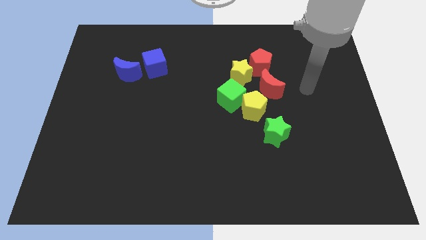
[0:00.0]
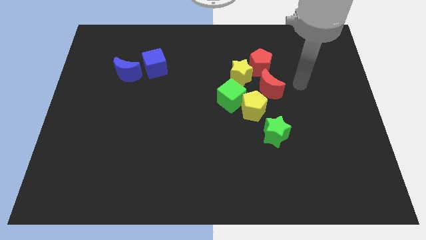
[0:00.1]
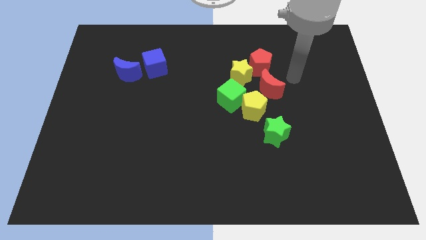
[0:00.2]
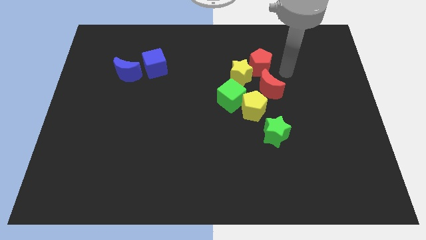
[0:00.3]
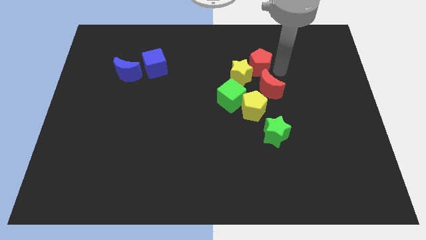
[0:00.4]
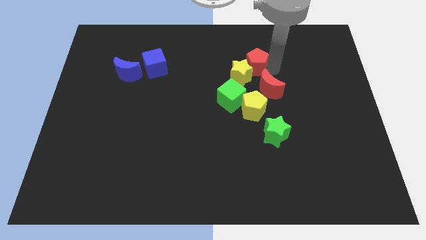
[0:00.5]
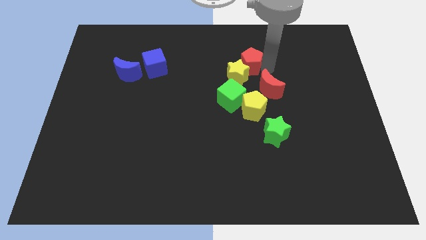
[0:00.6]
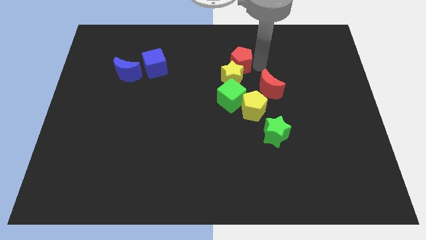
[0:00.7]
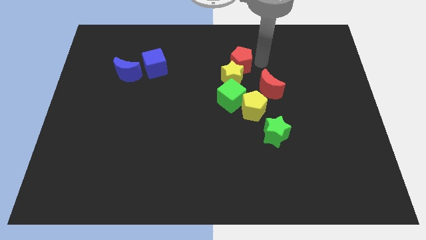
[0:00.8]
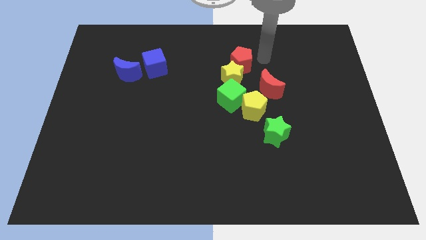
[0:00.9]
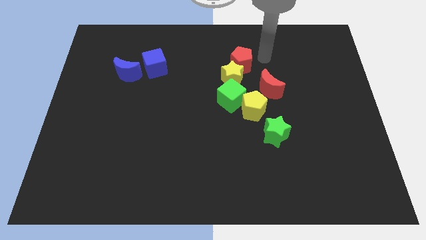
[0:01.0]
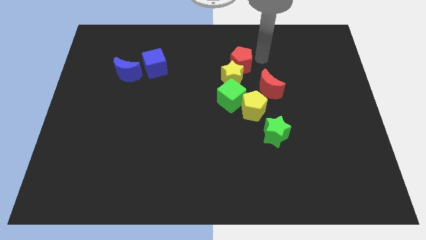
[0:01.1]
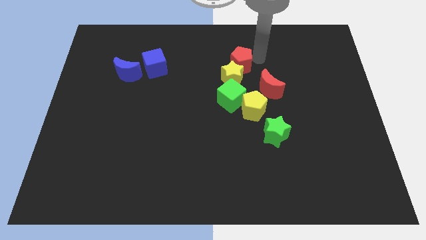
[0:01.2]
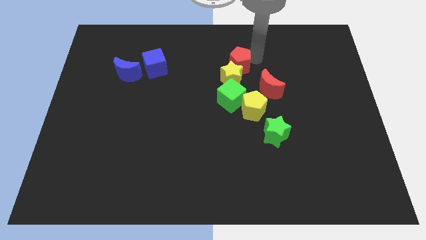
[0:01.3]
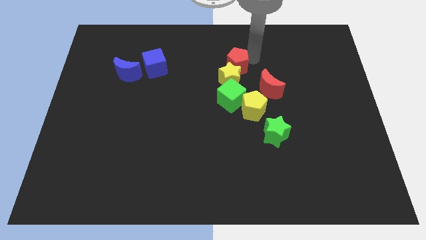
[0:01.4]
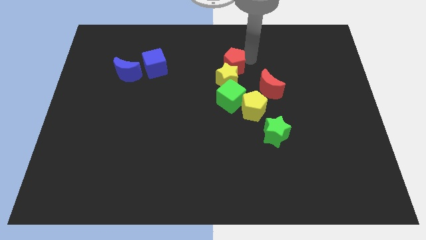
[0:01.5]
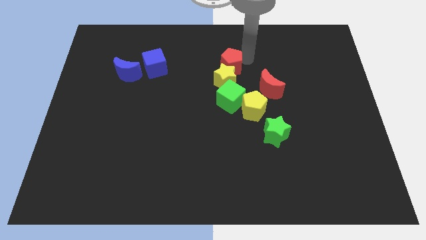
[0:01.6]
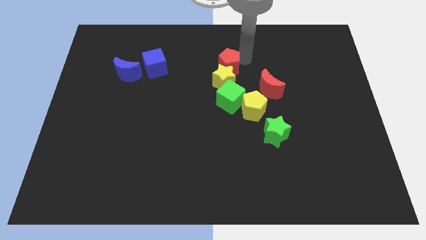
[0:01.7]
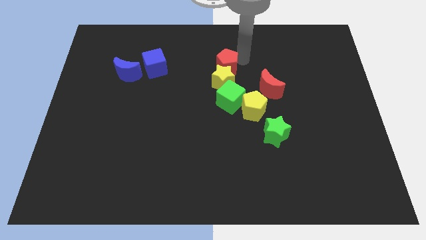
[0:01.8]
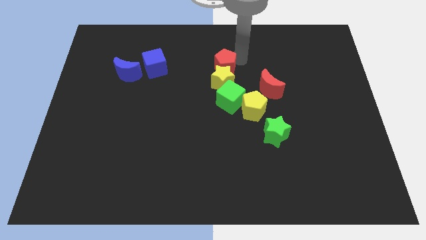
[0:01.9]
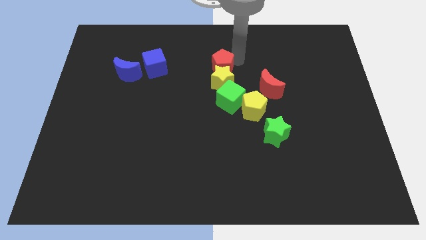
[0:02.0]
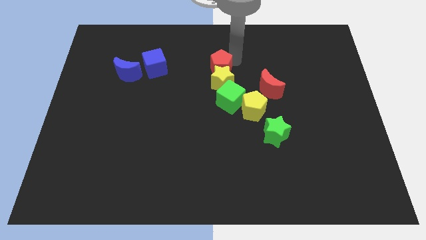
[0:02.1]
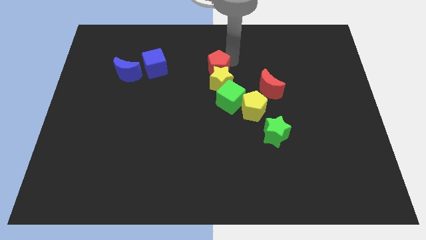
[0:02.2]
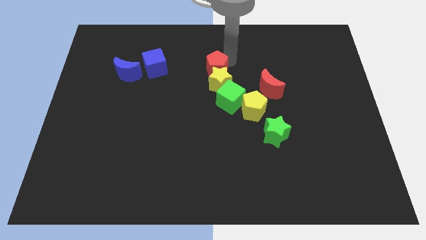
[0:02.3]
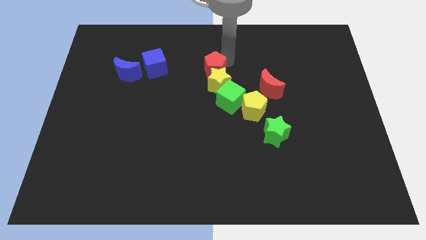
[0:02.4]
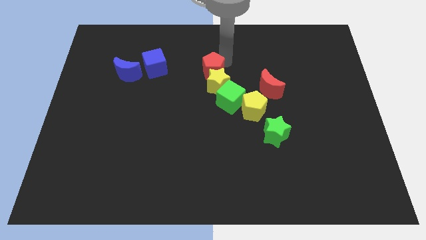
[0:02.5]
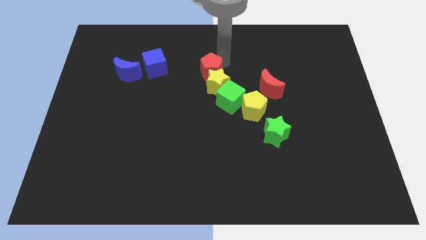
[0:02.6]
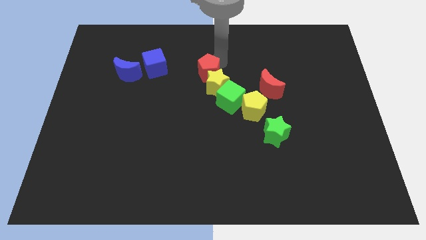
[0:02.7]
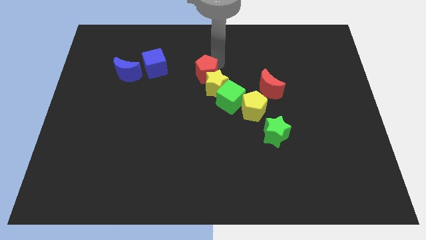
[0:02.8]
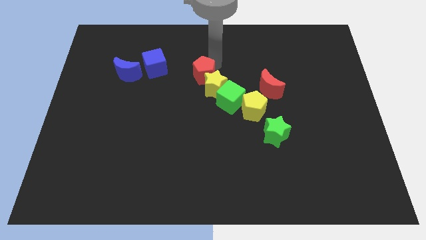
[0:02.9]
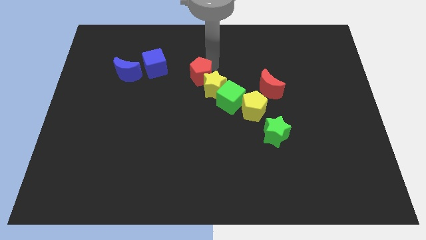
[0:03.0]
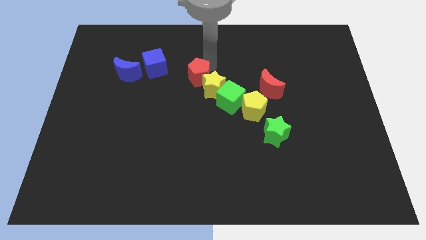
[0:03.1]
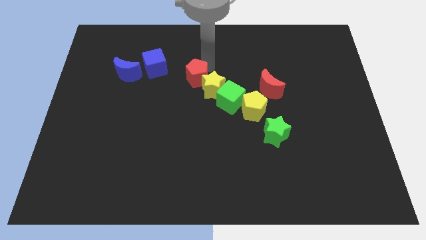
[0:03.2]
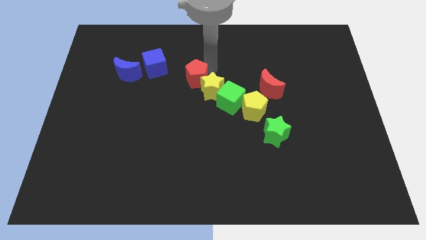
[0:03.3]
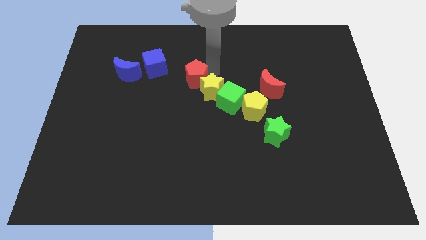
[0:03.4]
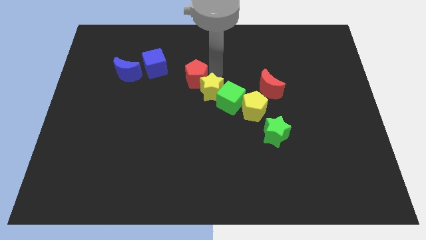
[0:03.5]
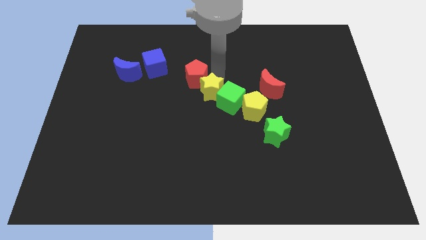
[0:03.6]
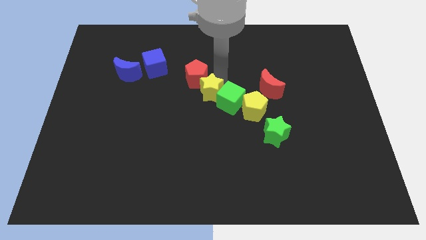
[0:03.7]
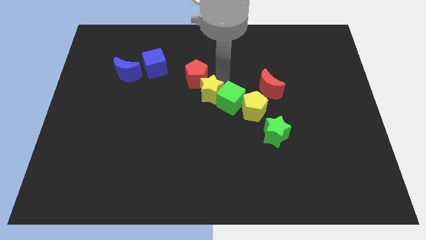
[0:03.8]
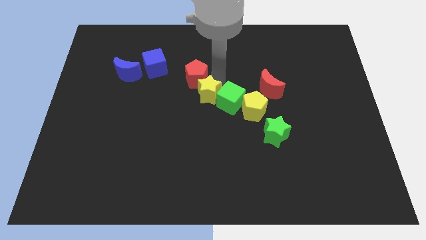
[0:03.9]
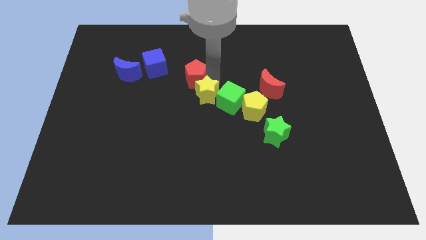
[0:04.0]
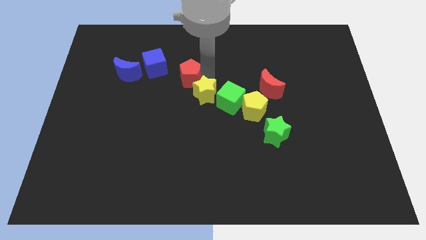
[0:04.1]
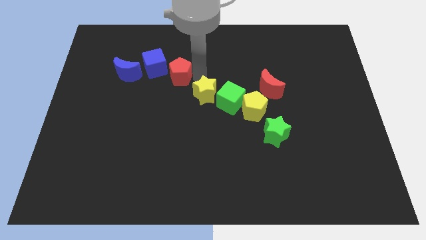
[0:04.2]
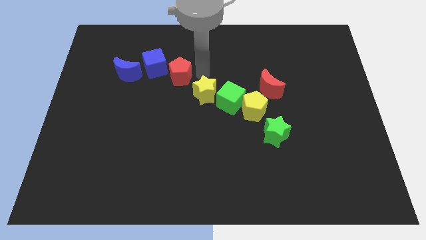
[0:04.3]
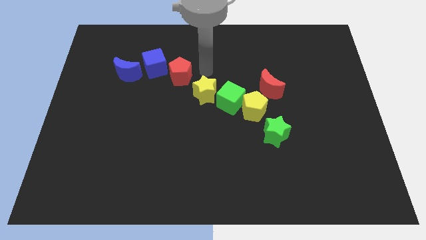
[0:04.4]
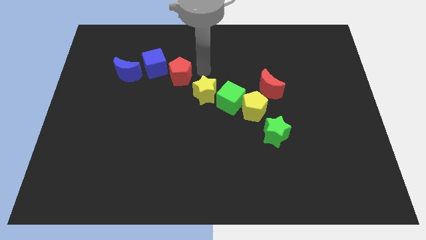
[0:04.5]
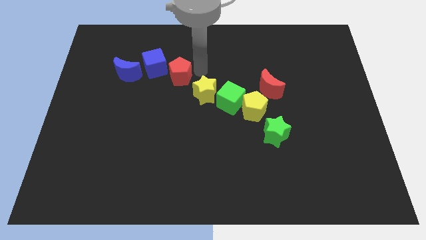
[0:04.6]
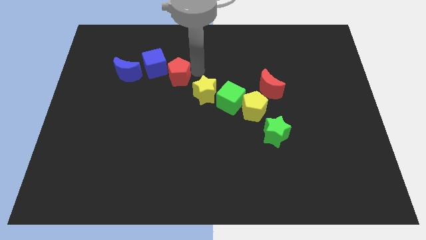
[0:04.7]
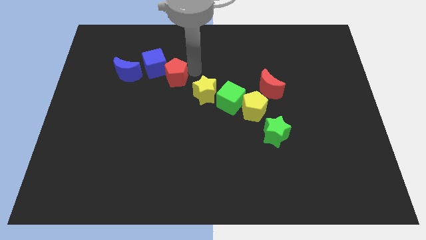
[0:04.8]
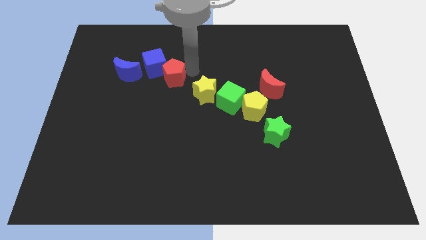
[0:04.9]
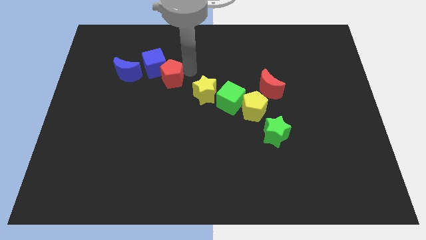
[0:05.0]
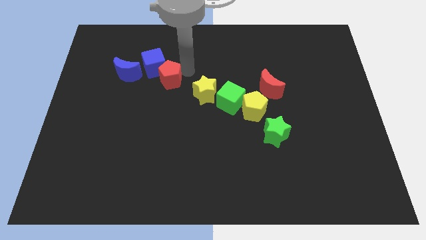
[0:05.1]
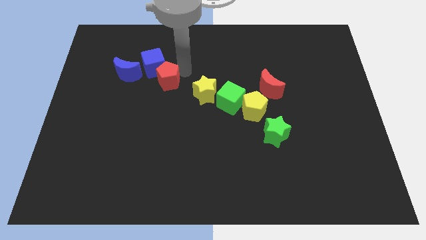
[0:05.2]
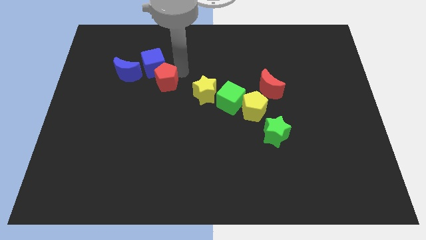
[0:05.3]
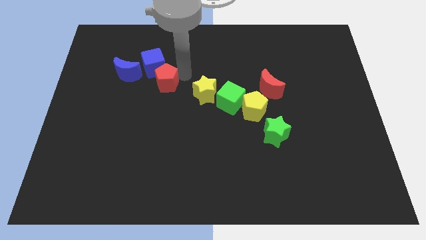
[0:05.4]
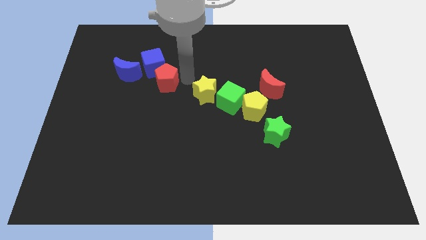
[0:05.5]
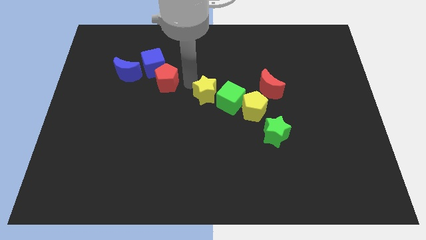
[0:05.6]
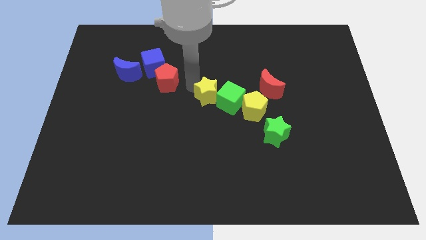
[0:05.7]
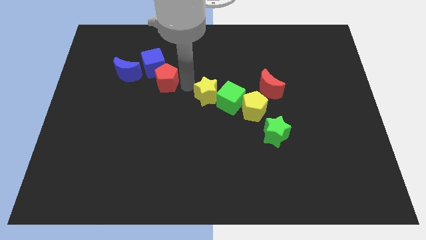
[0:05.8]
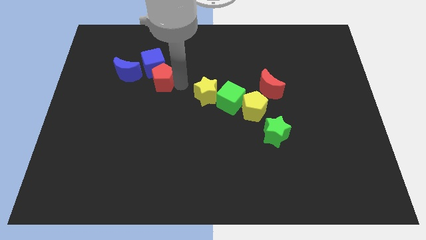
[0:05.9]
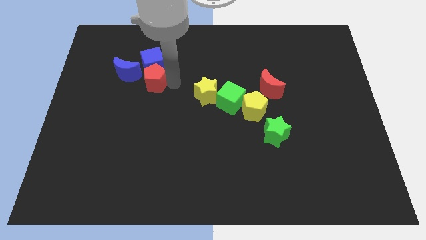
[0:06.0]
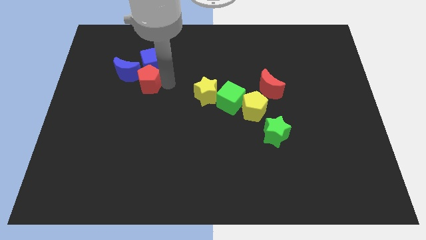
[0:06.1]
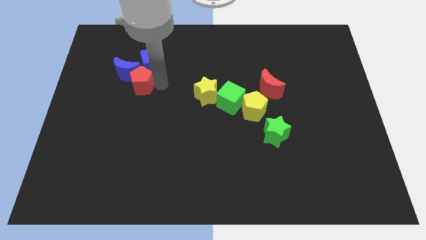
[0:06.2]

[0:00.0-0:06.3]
move the red pentagon close to the blue moon

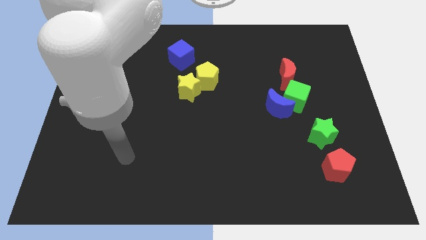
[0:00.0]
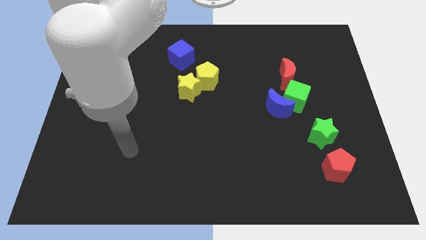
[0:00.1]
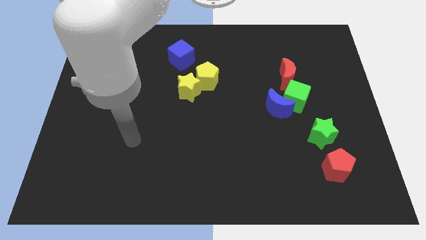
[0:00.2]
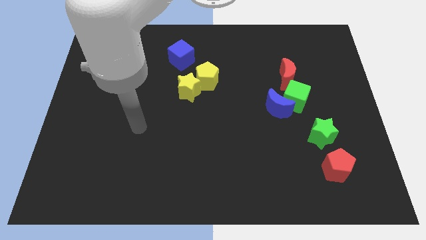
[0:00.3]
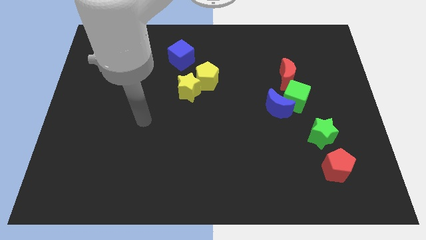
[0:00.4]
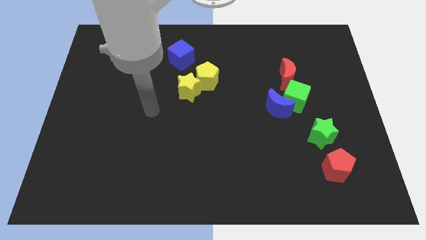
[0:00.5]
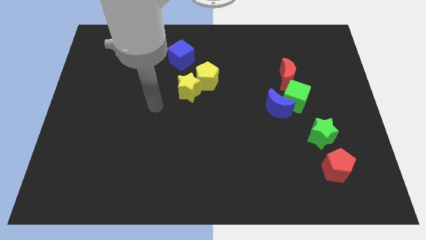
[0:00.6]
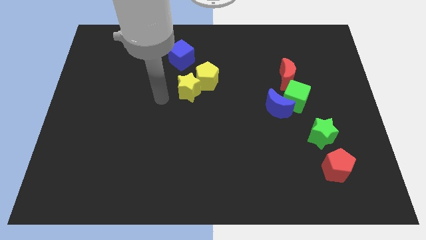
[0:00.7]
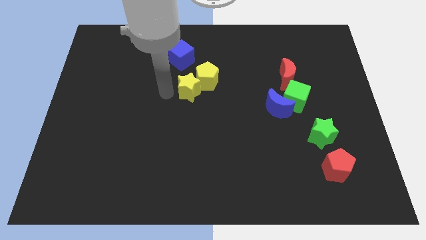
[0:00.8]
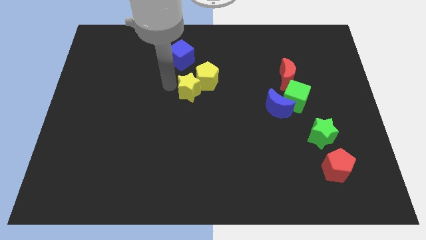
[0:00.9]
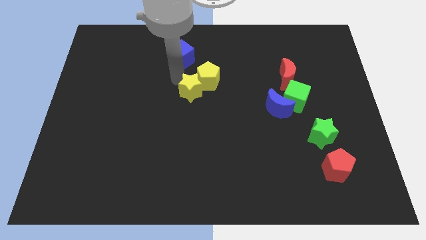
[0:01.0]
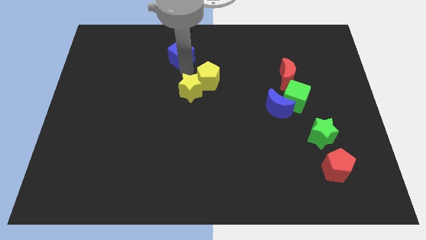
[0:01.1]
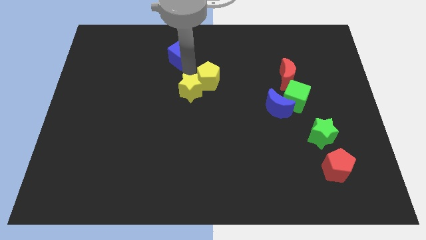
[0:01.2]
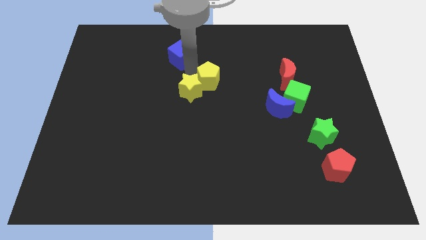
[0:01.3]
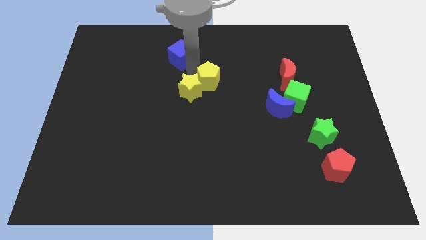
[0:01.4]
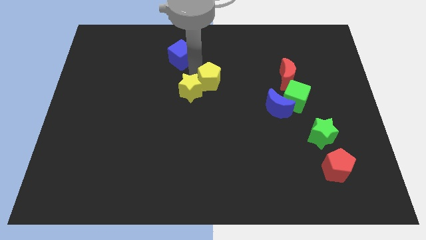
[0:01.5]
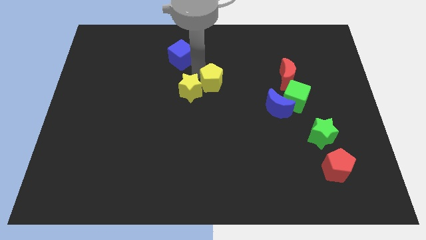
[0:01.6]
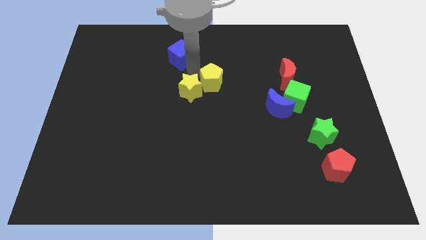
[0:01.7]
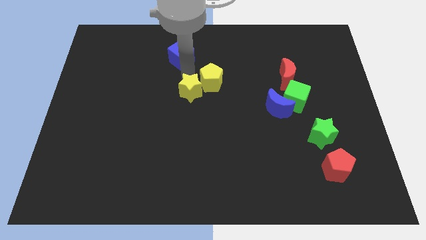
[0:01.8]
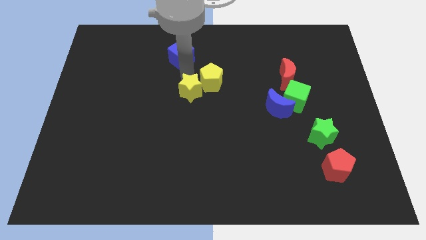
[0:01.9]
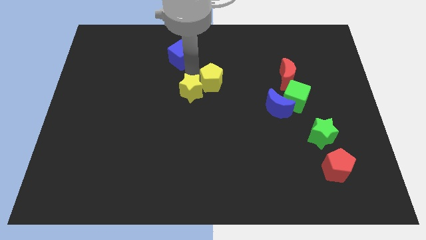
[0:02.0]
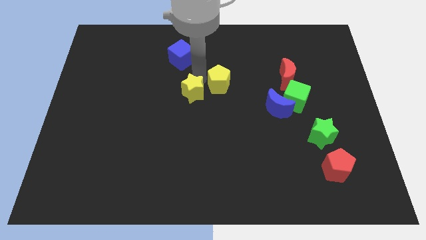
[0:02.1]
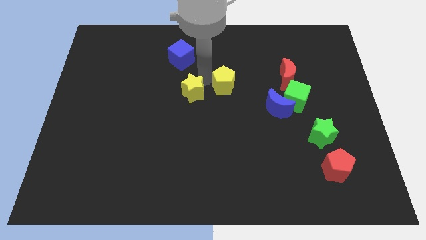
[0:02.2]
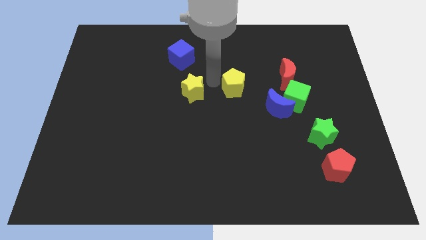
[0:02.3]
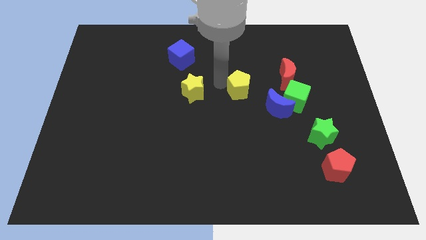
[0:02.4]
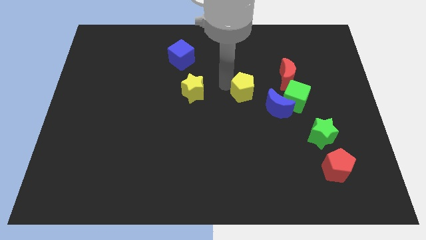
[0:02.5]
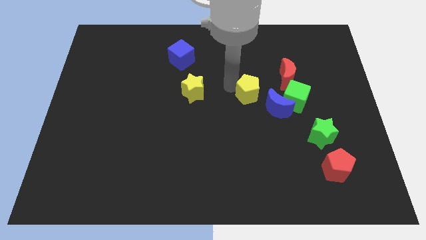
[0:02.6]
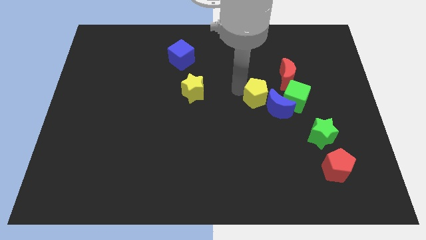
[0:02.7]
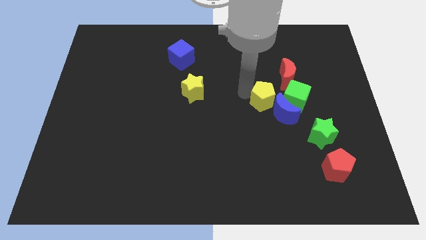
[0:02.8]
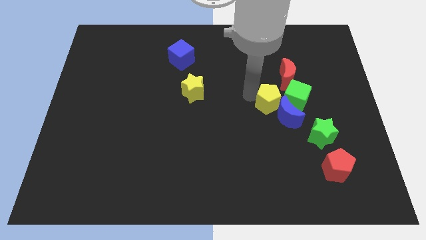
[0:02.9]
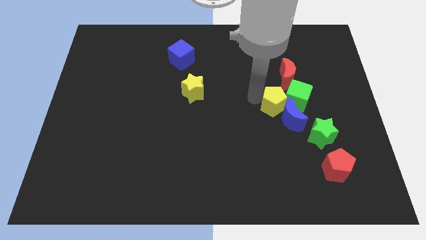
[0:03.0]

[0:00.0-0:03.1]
slide the yellow pentagon close to the green cube
